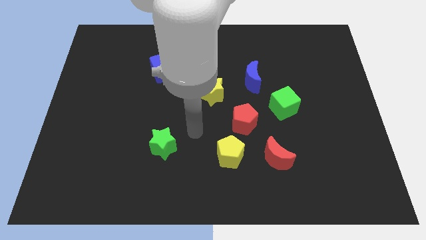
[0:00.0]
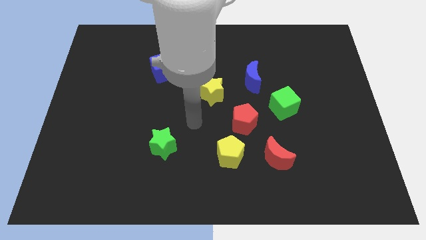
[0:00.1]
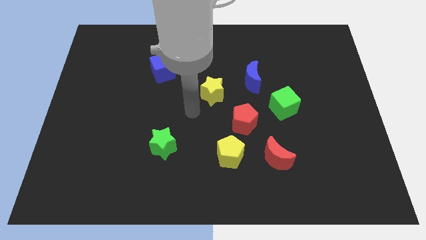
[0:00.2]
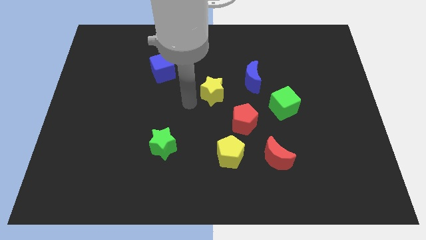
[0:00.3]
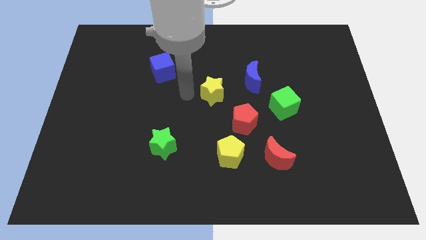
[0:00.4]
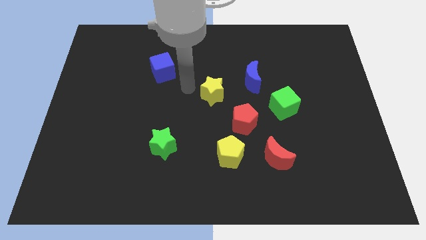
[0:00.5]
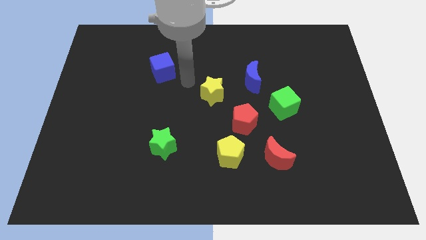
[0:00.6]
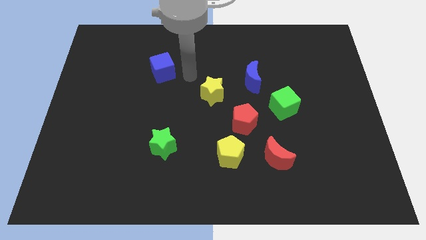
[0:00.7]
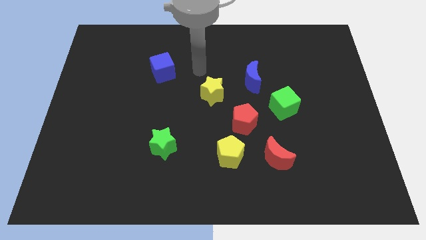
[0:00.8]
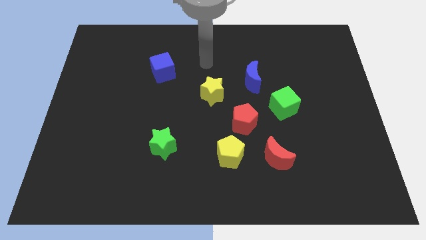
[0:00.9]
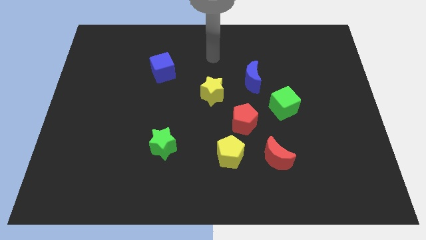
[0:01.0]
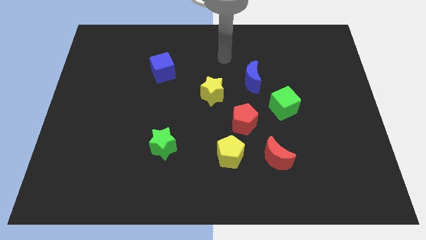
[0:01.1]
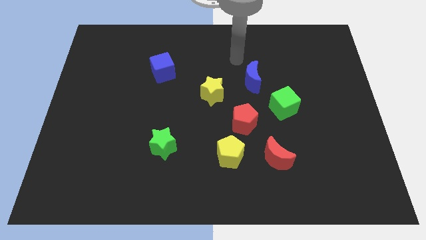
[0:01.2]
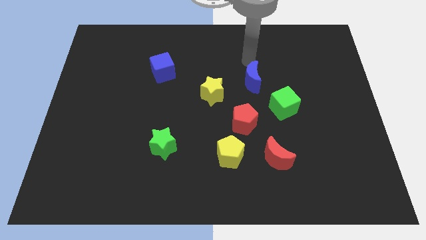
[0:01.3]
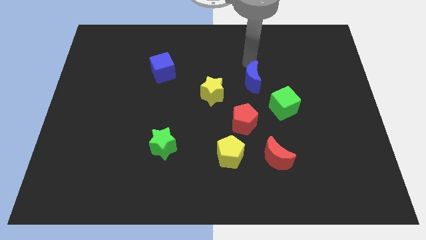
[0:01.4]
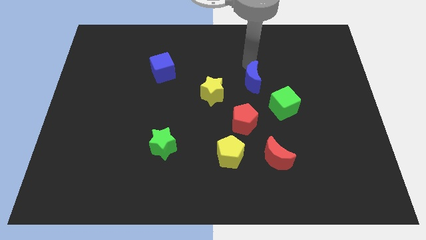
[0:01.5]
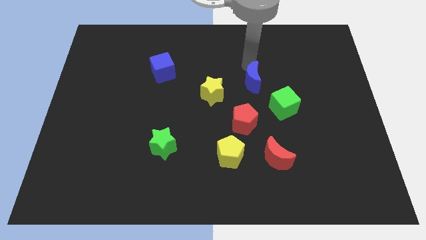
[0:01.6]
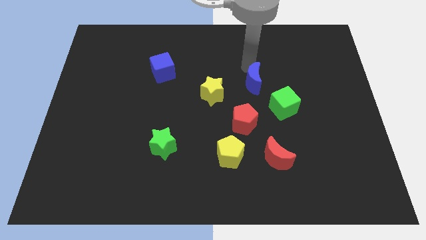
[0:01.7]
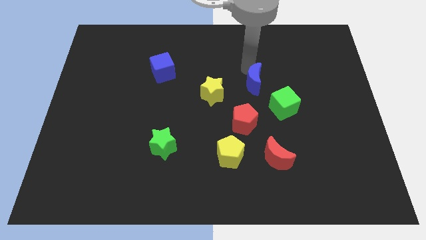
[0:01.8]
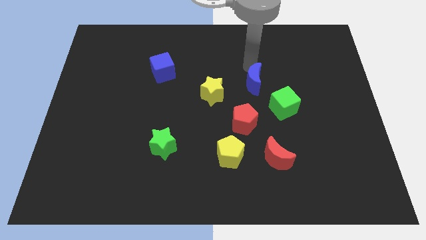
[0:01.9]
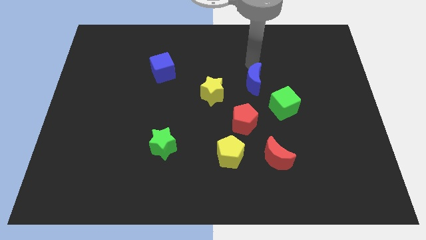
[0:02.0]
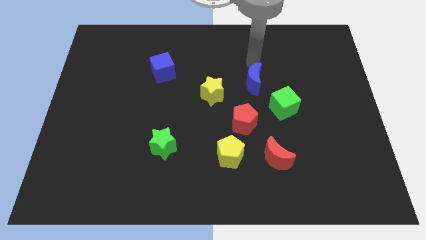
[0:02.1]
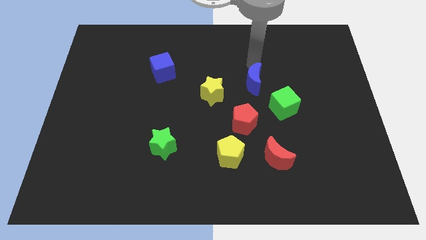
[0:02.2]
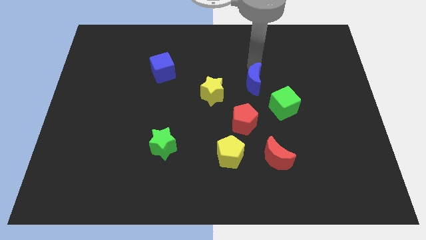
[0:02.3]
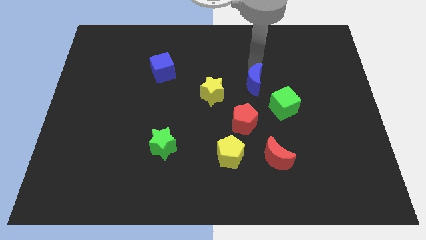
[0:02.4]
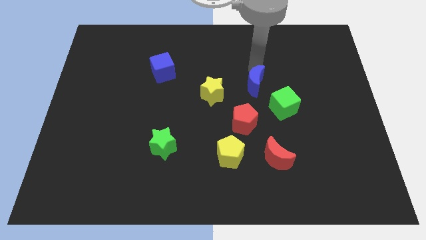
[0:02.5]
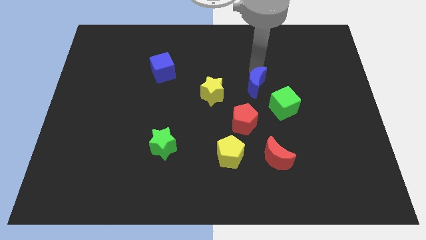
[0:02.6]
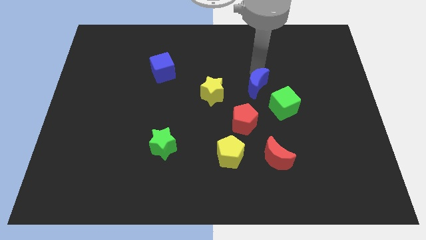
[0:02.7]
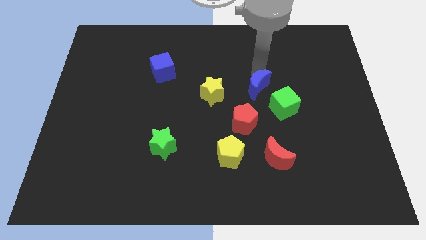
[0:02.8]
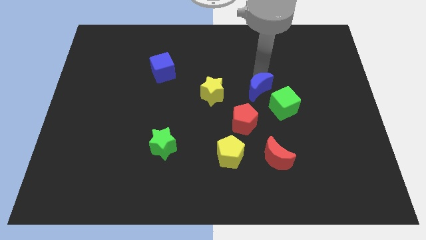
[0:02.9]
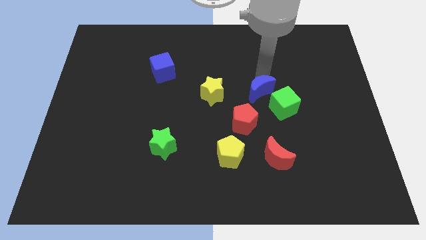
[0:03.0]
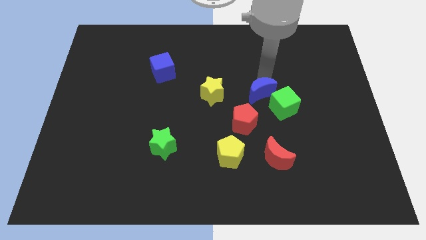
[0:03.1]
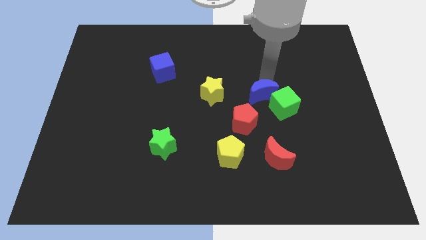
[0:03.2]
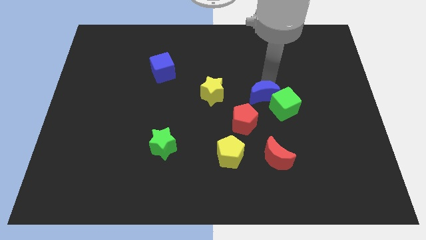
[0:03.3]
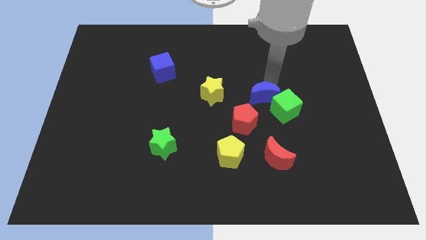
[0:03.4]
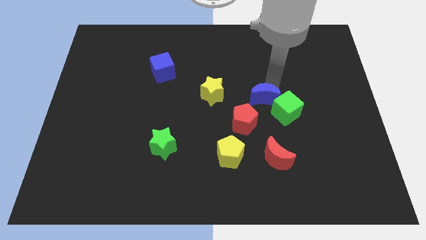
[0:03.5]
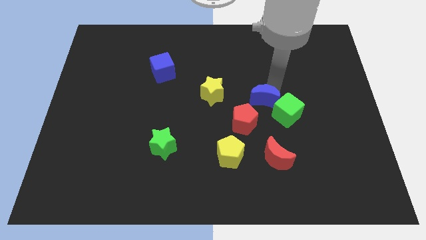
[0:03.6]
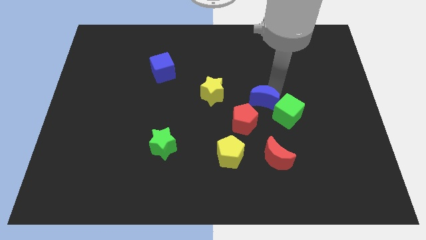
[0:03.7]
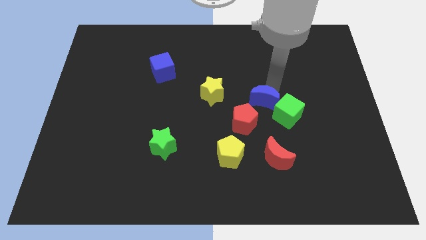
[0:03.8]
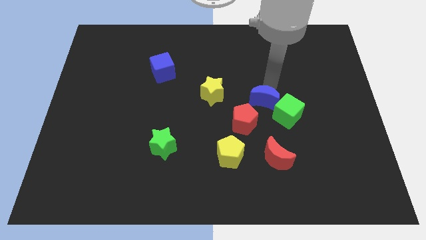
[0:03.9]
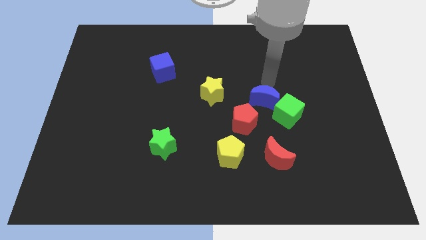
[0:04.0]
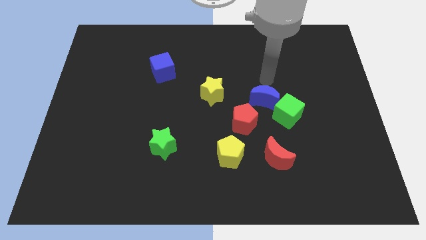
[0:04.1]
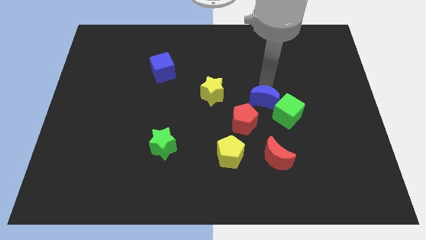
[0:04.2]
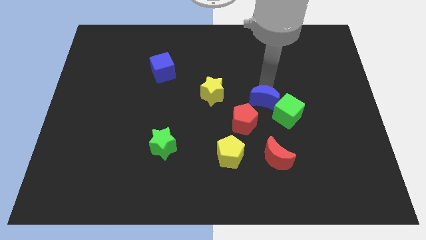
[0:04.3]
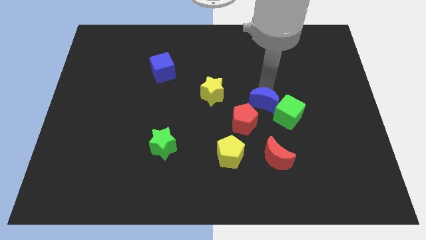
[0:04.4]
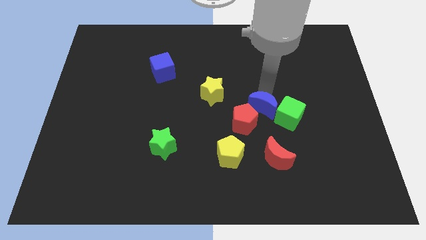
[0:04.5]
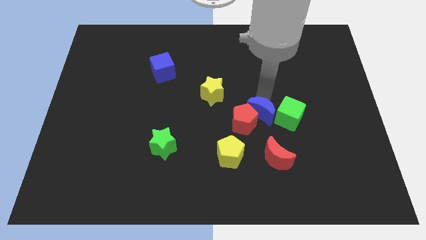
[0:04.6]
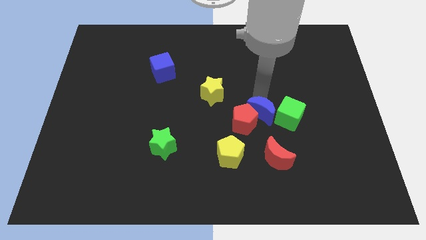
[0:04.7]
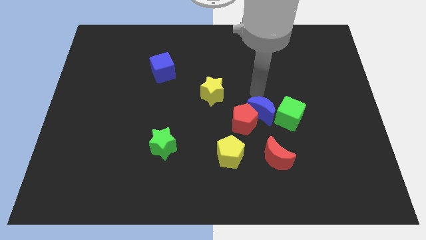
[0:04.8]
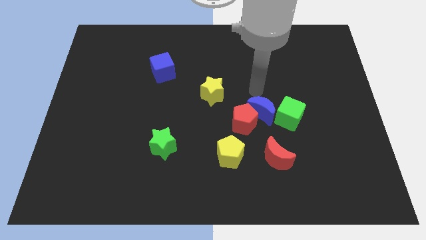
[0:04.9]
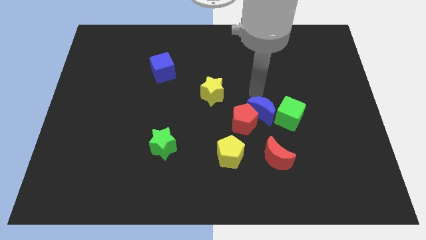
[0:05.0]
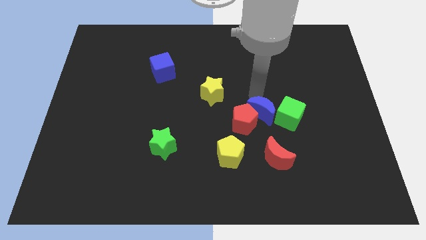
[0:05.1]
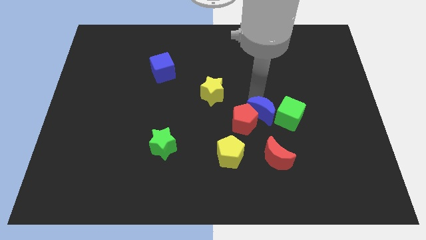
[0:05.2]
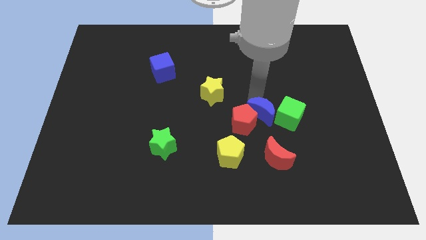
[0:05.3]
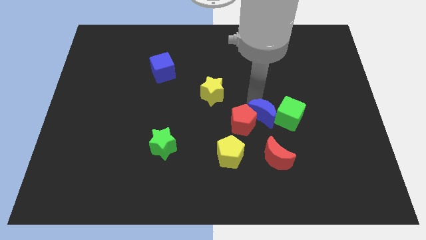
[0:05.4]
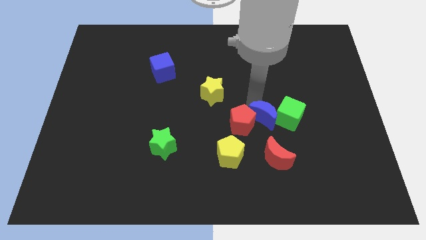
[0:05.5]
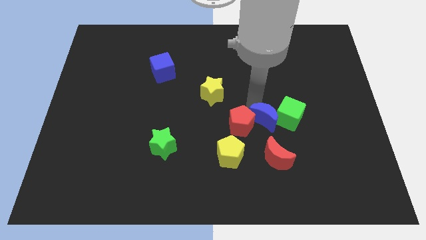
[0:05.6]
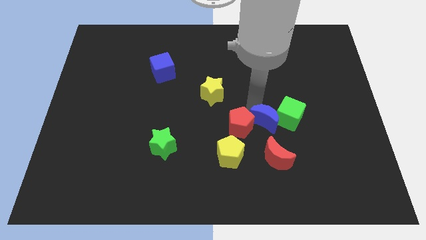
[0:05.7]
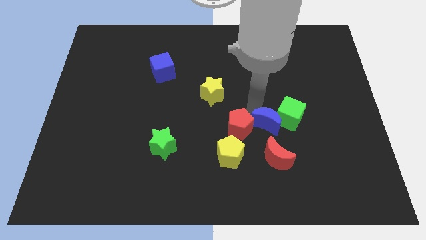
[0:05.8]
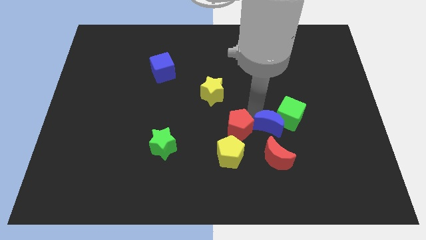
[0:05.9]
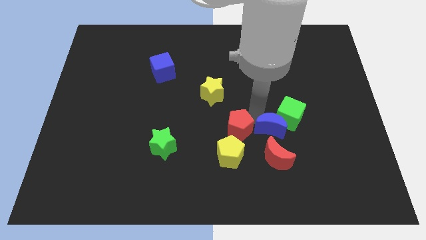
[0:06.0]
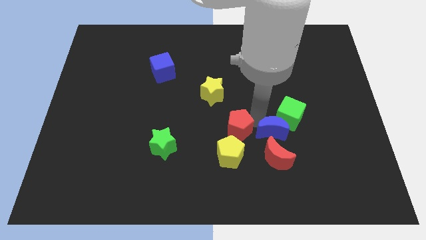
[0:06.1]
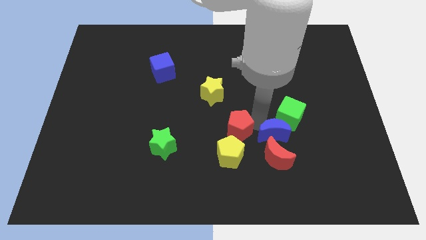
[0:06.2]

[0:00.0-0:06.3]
push the blue moon close to the red moon

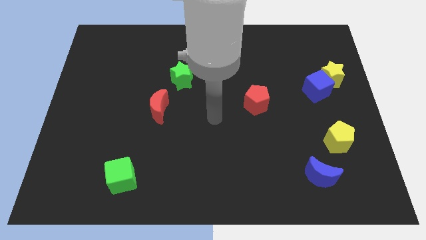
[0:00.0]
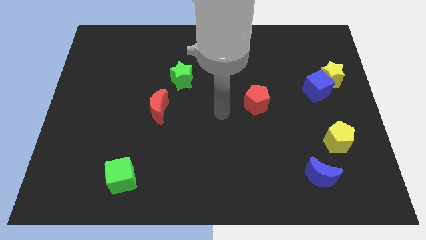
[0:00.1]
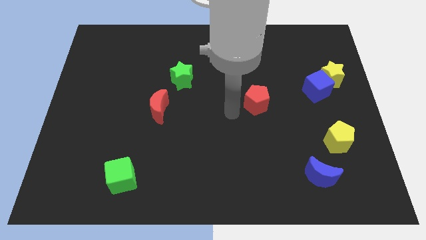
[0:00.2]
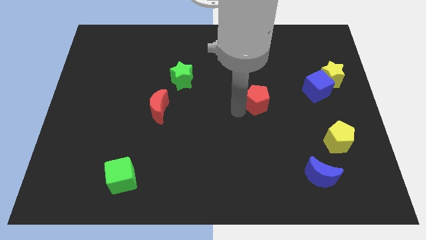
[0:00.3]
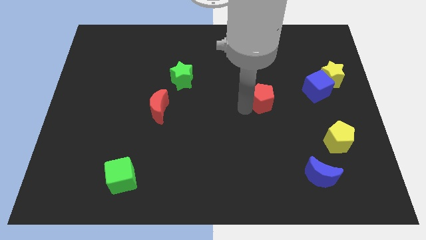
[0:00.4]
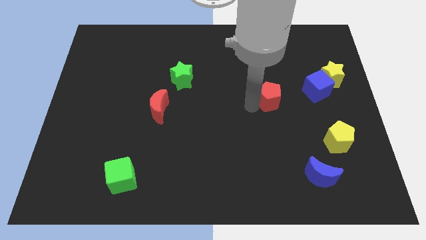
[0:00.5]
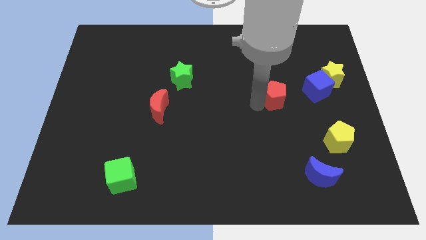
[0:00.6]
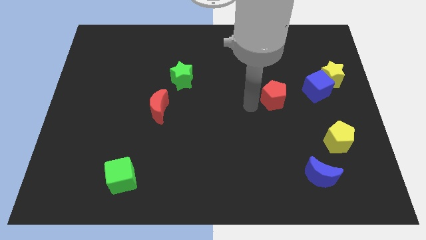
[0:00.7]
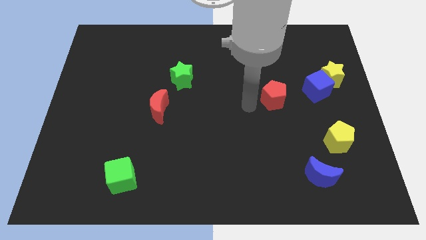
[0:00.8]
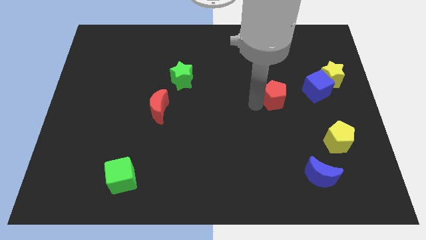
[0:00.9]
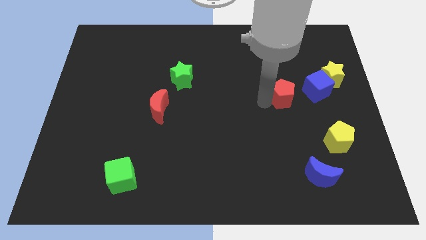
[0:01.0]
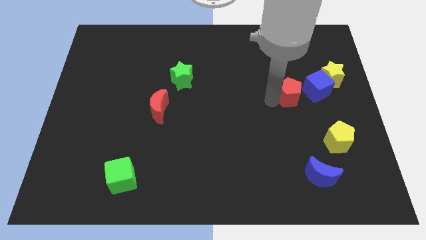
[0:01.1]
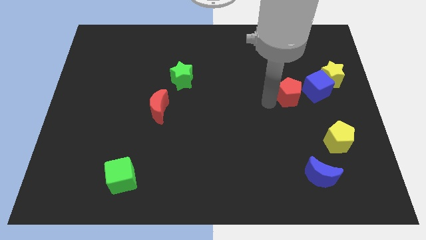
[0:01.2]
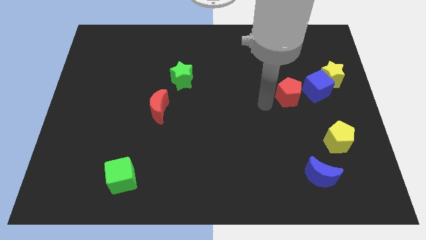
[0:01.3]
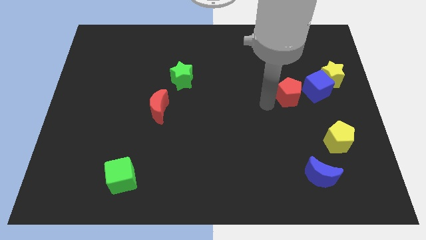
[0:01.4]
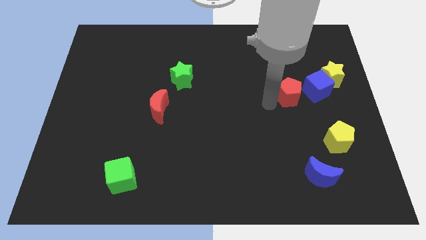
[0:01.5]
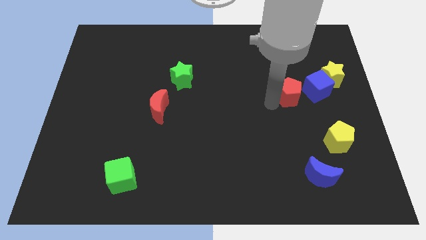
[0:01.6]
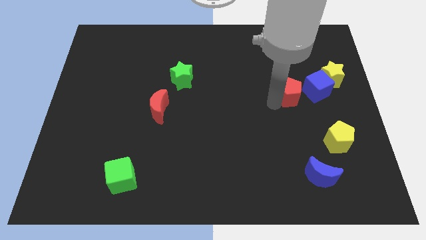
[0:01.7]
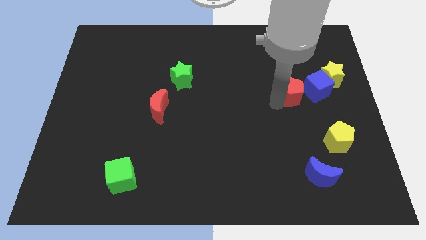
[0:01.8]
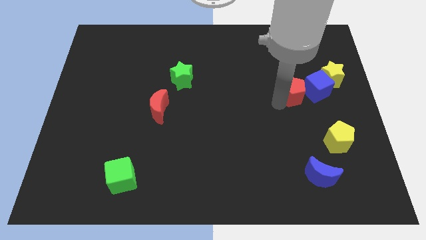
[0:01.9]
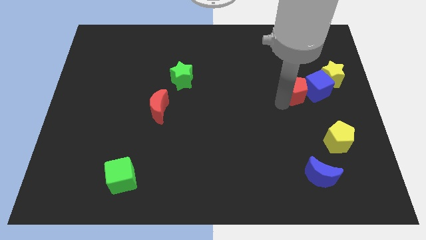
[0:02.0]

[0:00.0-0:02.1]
move the red pentagon to the blue cube
